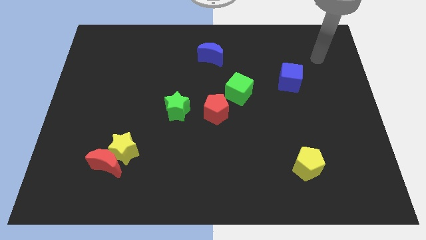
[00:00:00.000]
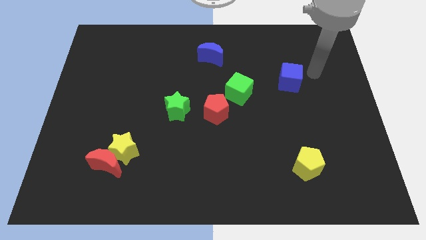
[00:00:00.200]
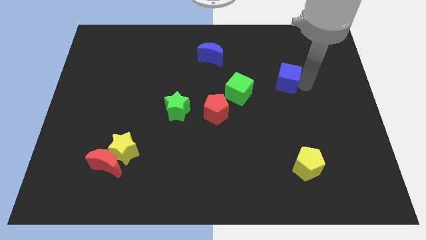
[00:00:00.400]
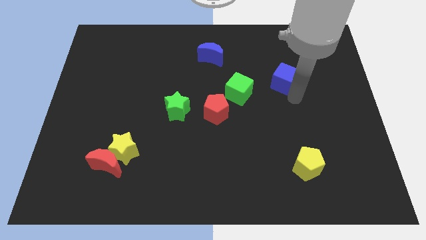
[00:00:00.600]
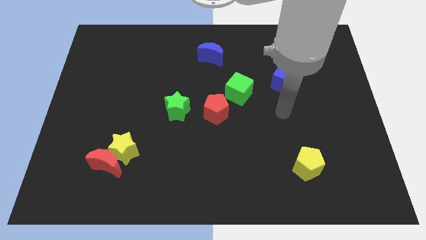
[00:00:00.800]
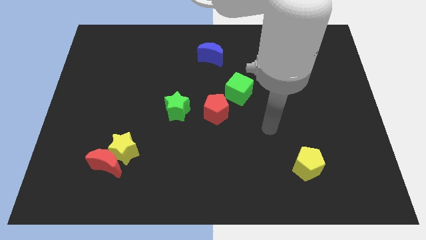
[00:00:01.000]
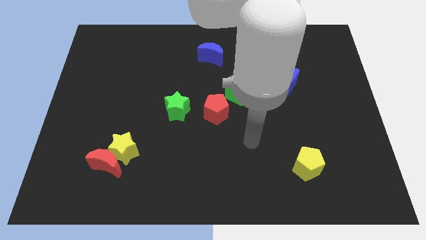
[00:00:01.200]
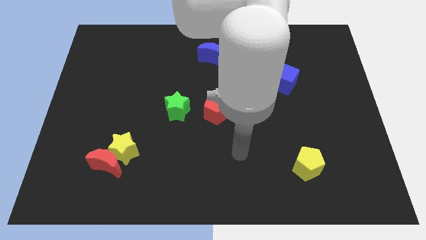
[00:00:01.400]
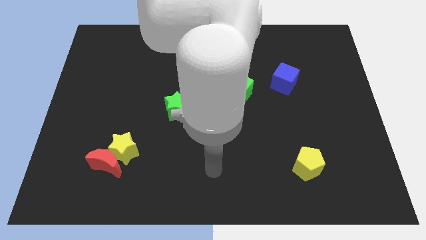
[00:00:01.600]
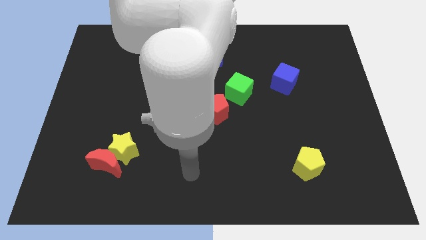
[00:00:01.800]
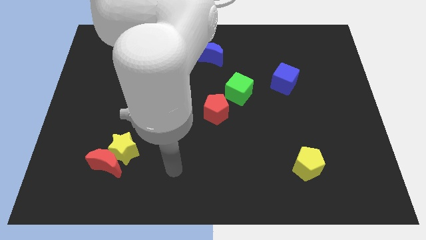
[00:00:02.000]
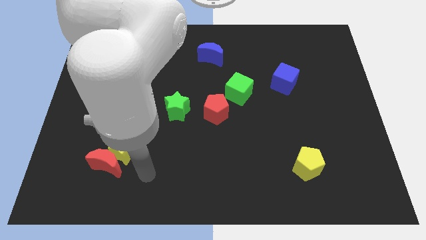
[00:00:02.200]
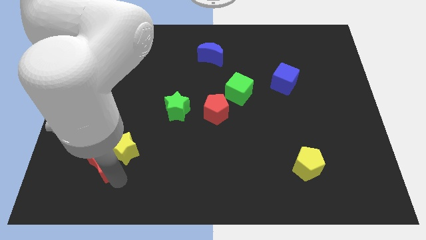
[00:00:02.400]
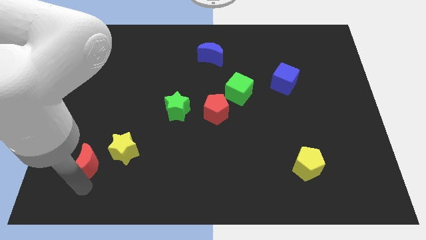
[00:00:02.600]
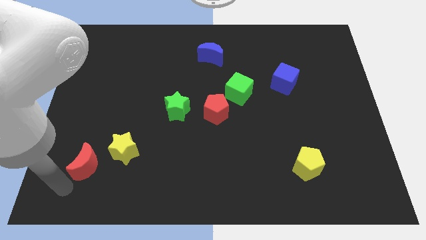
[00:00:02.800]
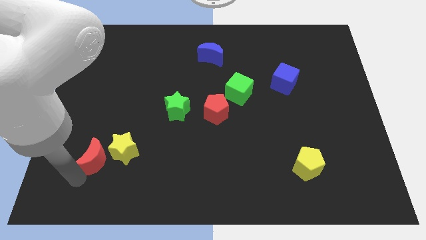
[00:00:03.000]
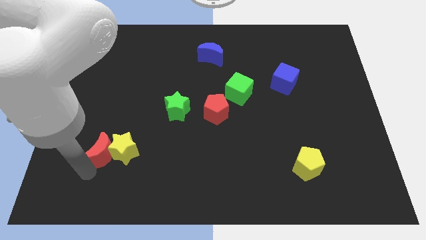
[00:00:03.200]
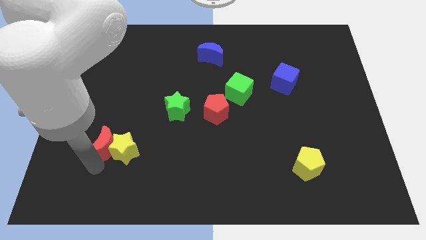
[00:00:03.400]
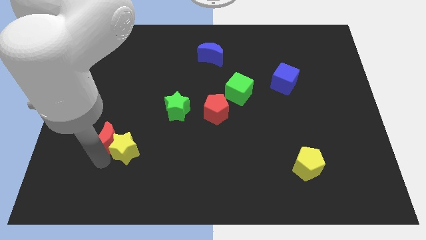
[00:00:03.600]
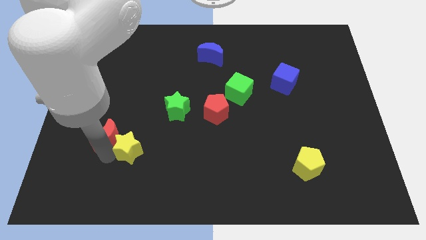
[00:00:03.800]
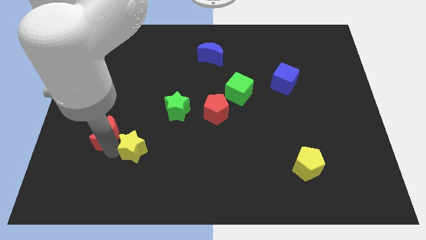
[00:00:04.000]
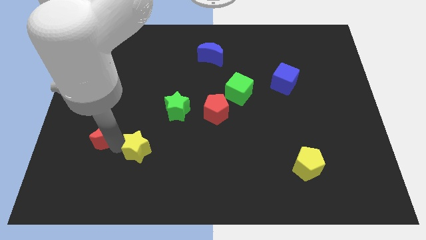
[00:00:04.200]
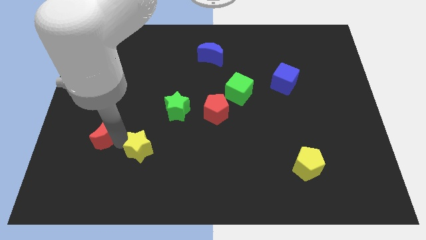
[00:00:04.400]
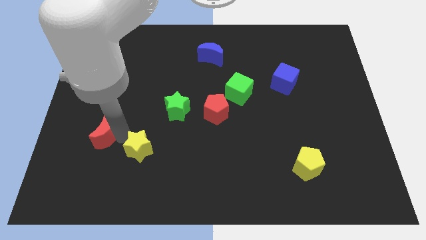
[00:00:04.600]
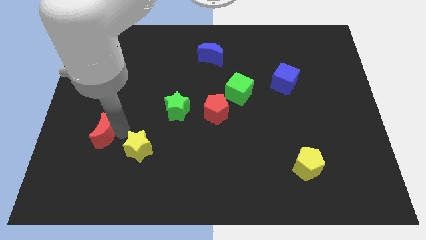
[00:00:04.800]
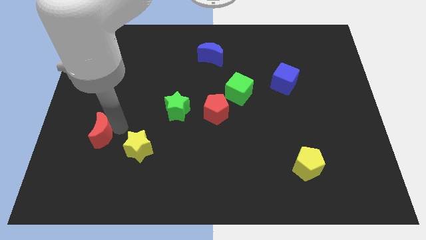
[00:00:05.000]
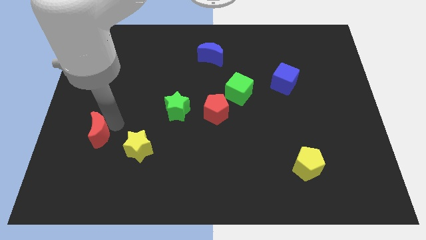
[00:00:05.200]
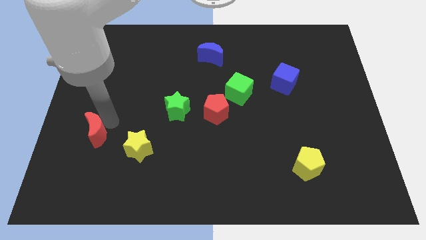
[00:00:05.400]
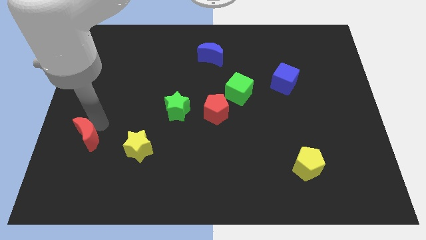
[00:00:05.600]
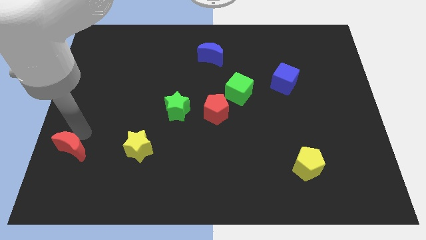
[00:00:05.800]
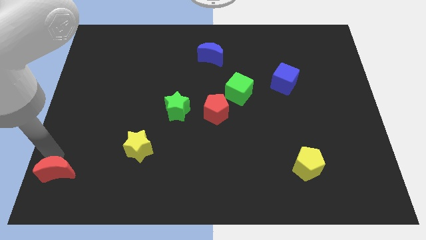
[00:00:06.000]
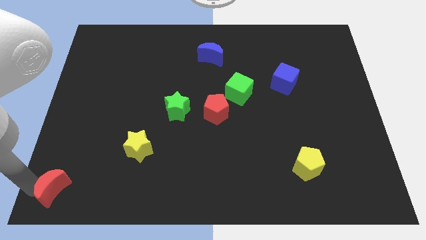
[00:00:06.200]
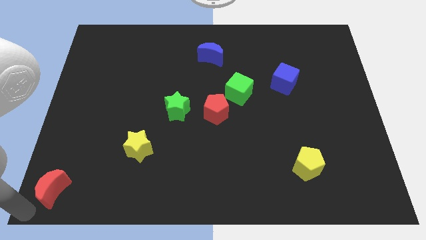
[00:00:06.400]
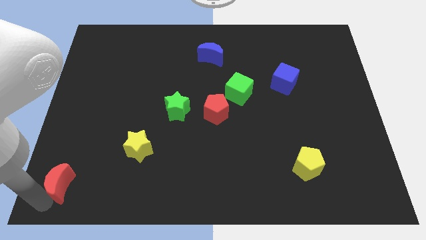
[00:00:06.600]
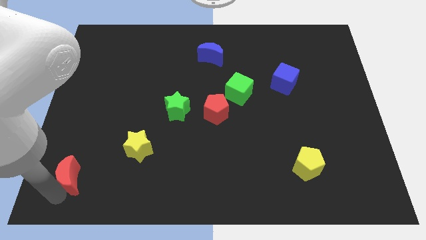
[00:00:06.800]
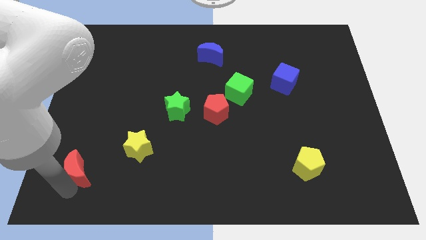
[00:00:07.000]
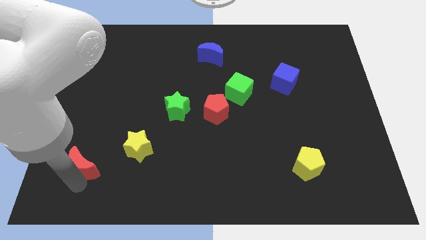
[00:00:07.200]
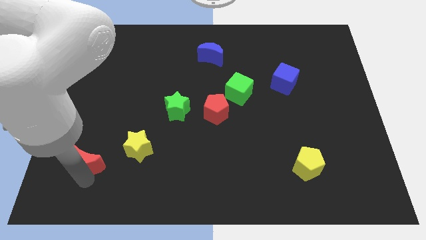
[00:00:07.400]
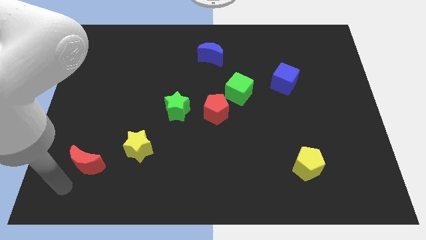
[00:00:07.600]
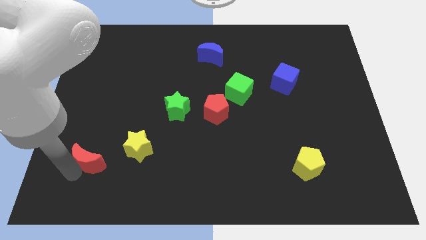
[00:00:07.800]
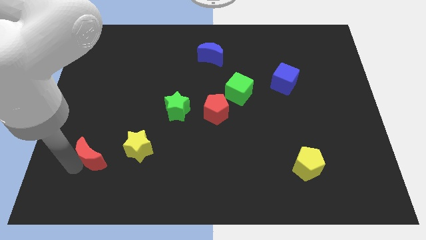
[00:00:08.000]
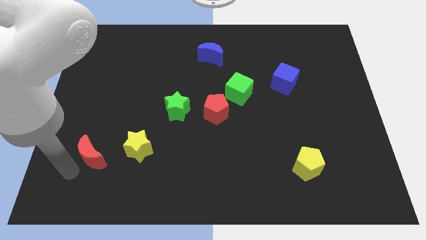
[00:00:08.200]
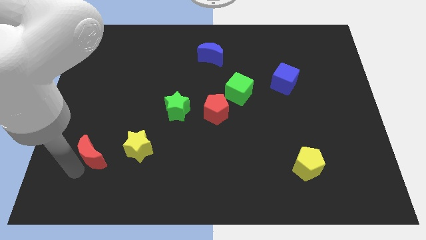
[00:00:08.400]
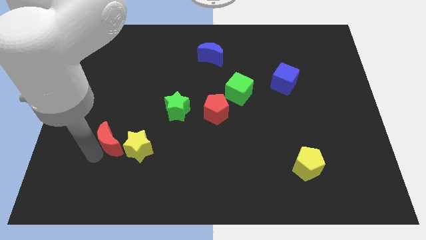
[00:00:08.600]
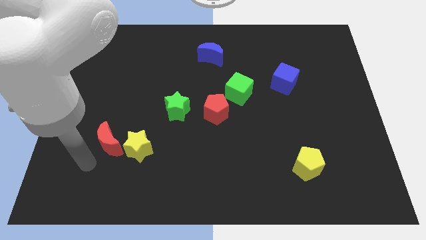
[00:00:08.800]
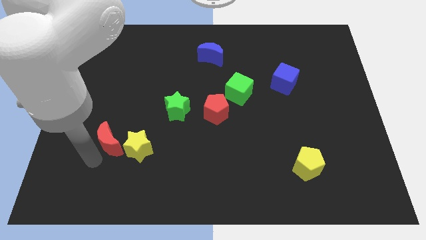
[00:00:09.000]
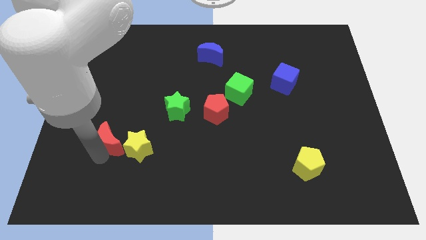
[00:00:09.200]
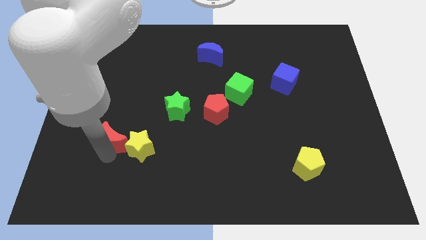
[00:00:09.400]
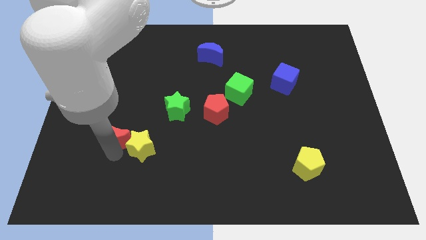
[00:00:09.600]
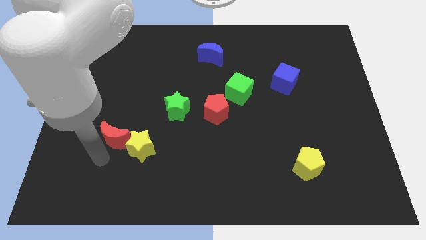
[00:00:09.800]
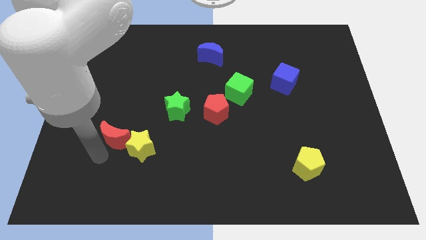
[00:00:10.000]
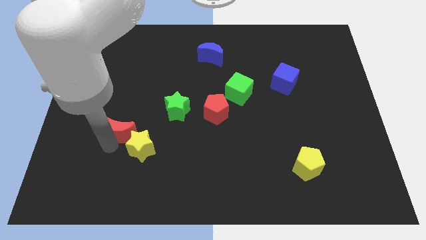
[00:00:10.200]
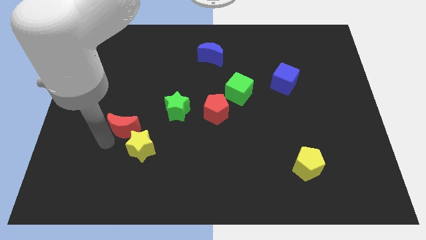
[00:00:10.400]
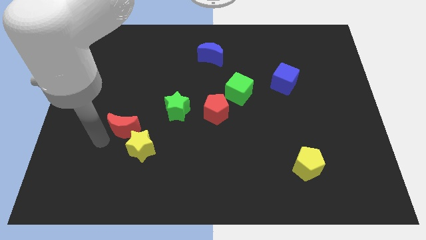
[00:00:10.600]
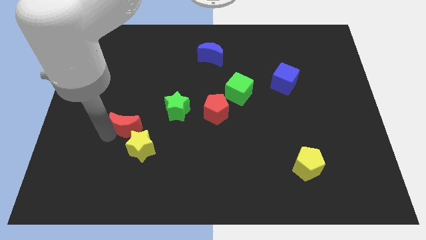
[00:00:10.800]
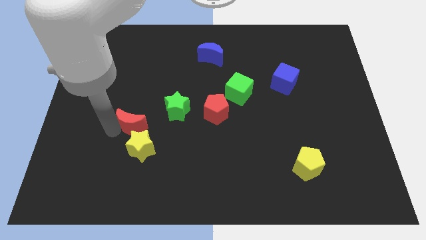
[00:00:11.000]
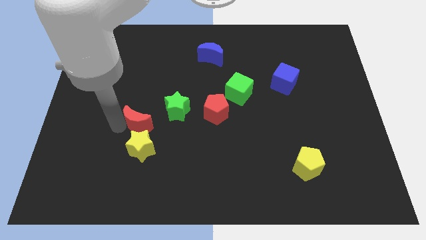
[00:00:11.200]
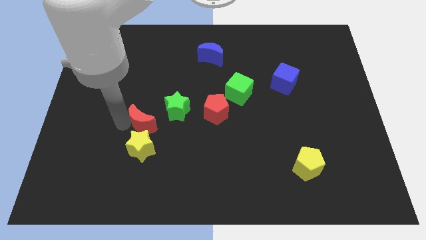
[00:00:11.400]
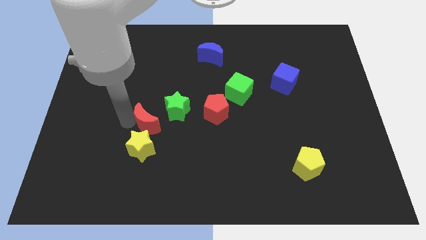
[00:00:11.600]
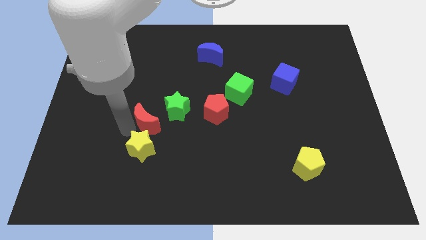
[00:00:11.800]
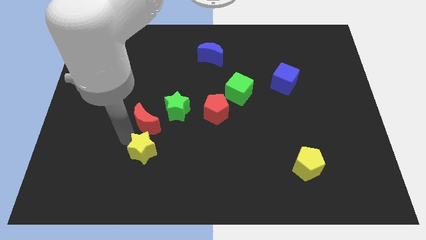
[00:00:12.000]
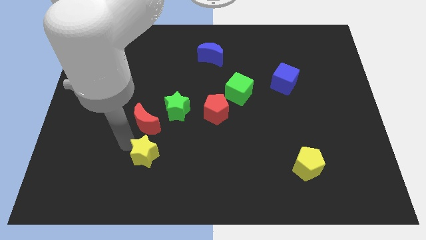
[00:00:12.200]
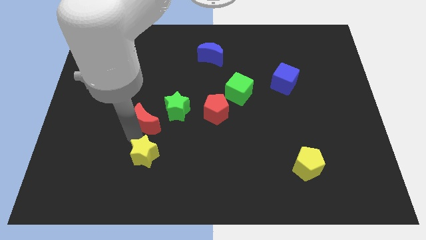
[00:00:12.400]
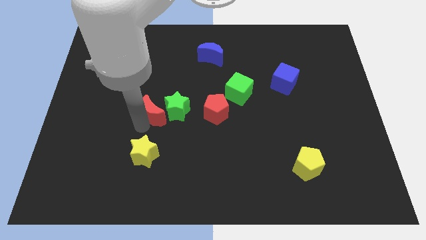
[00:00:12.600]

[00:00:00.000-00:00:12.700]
slide the red moon close to the green star
